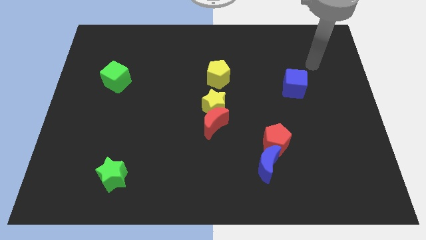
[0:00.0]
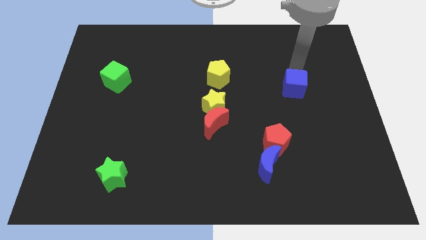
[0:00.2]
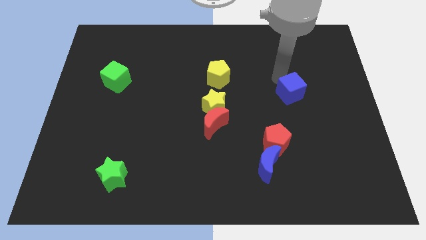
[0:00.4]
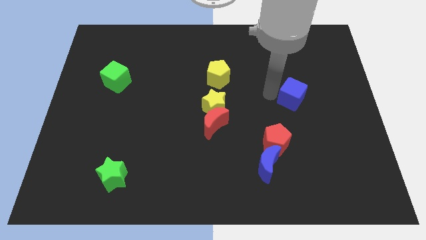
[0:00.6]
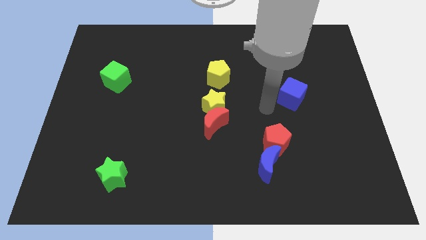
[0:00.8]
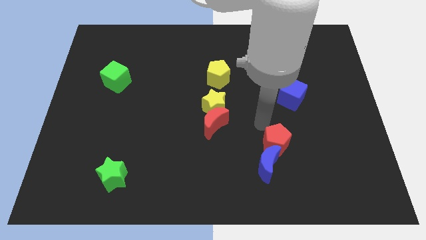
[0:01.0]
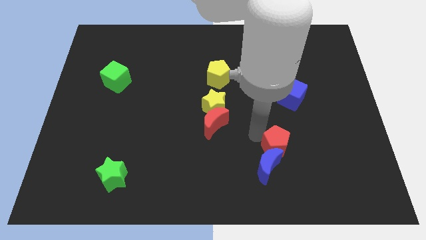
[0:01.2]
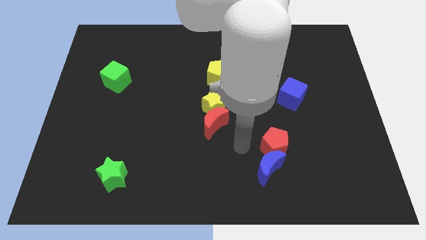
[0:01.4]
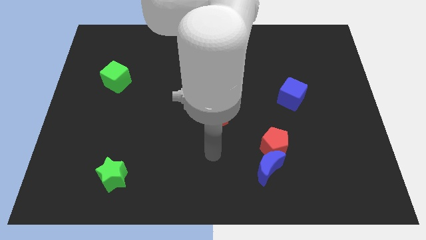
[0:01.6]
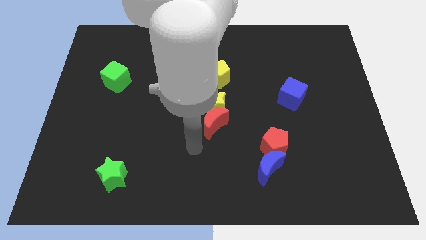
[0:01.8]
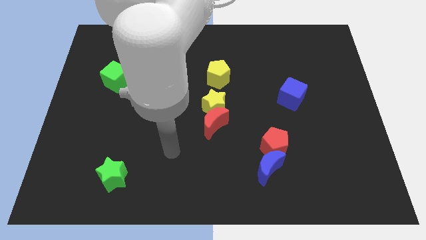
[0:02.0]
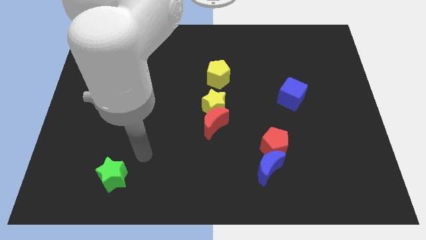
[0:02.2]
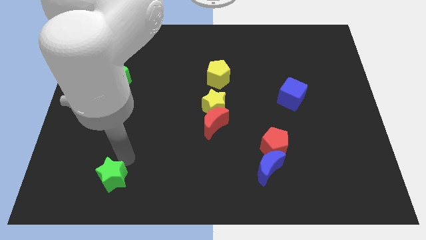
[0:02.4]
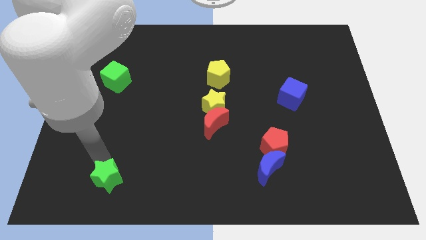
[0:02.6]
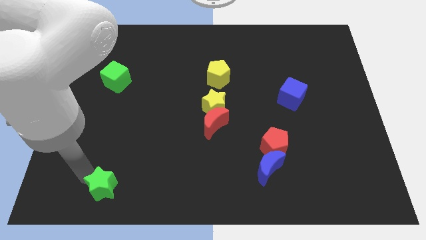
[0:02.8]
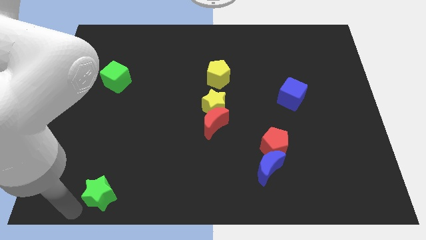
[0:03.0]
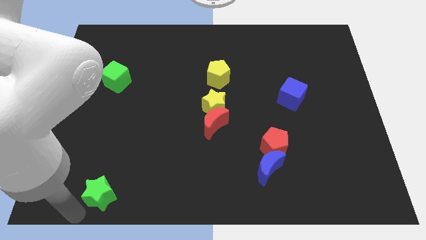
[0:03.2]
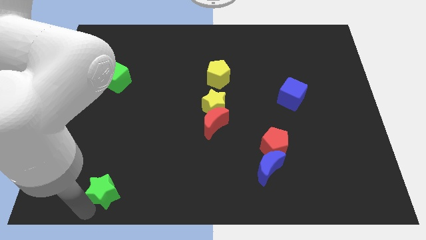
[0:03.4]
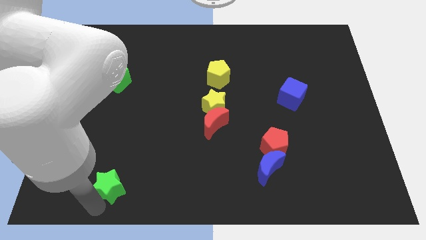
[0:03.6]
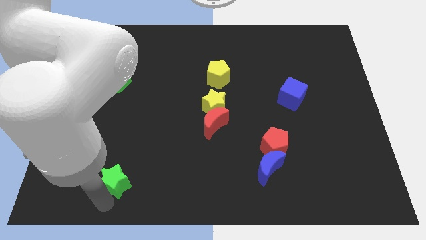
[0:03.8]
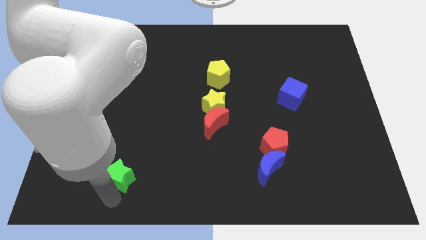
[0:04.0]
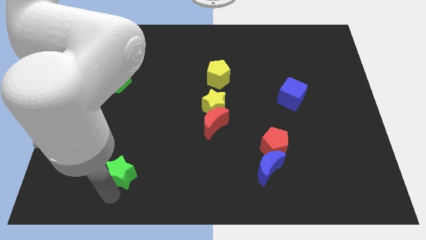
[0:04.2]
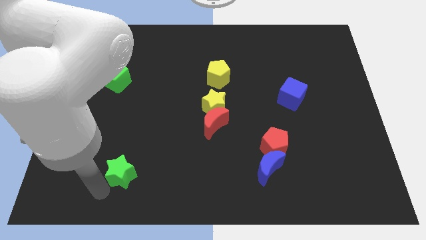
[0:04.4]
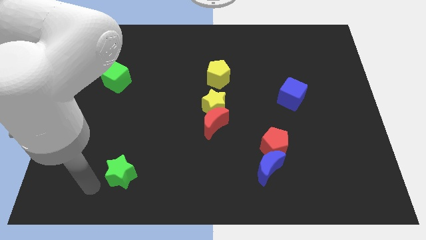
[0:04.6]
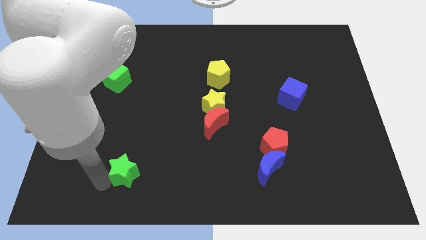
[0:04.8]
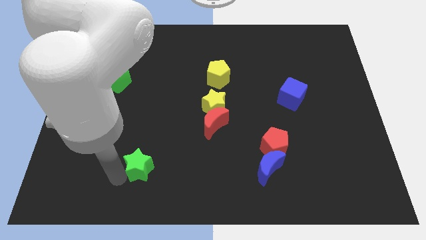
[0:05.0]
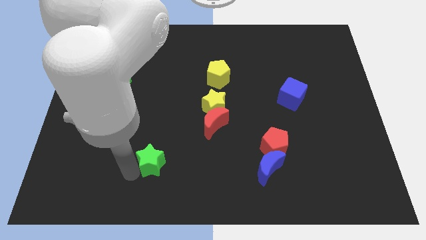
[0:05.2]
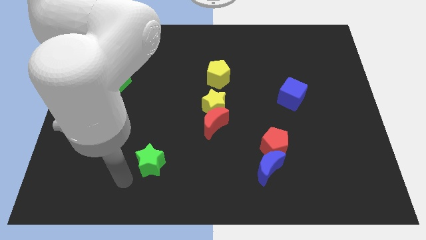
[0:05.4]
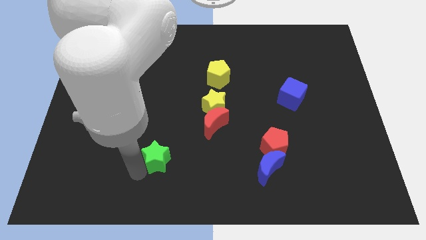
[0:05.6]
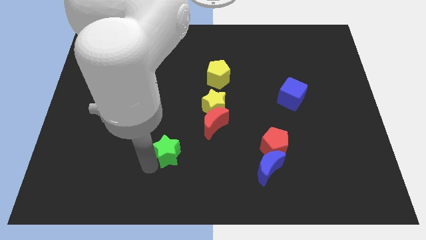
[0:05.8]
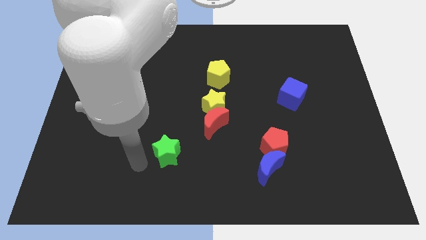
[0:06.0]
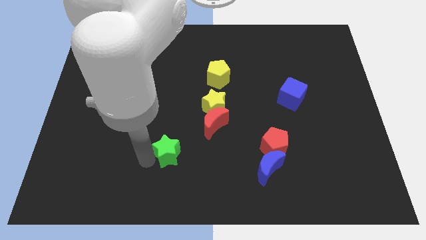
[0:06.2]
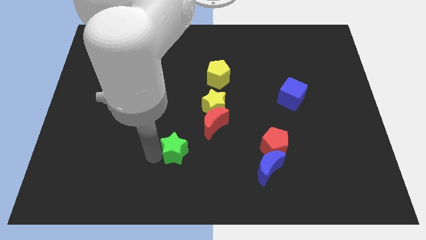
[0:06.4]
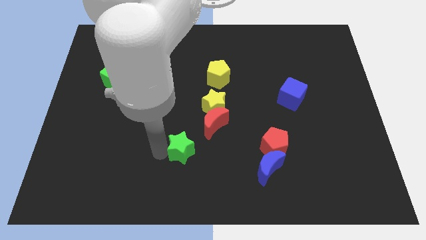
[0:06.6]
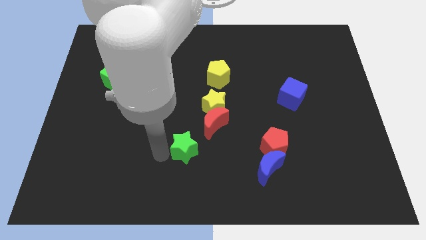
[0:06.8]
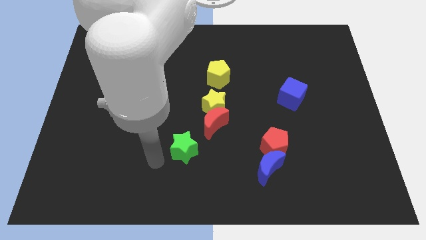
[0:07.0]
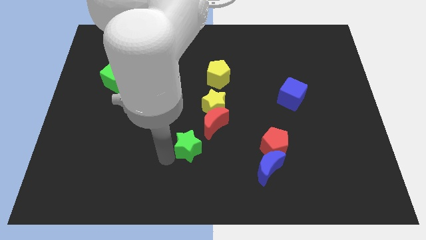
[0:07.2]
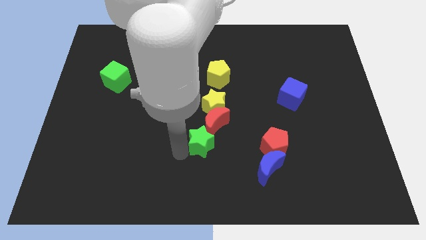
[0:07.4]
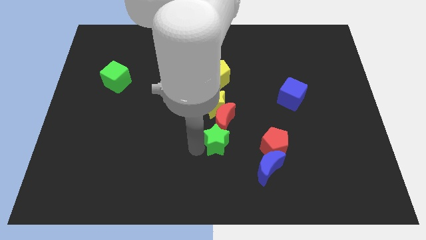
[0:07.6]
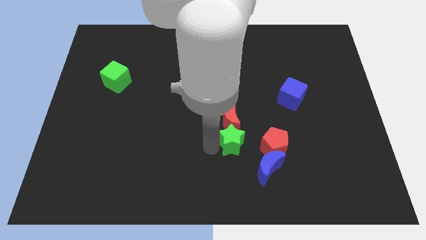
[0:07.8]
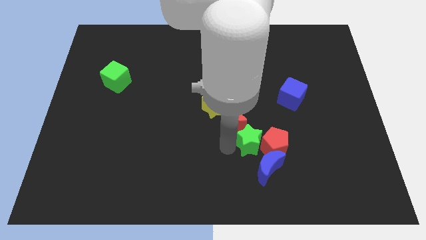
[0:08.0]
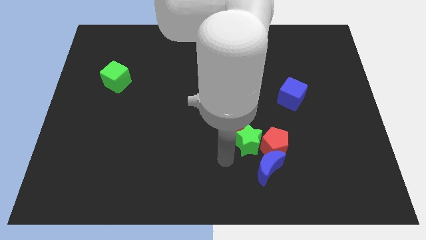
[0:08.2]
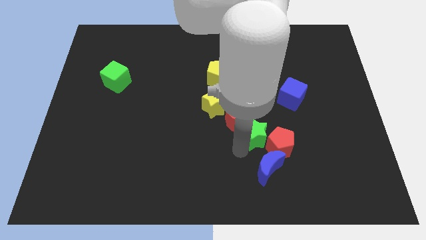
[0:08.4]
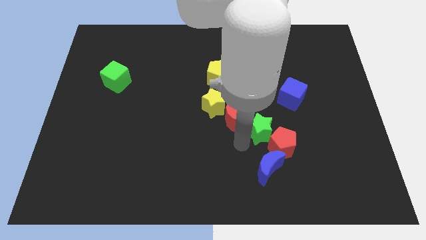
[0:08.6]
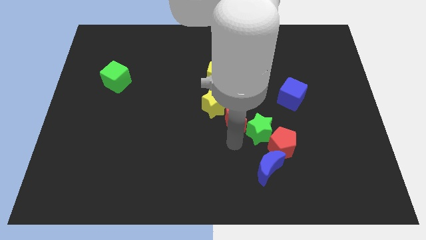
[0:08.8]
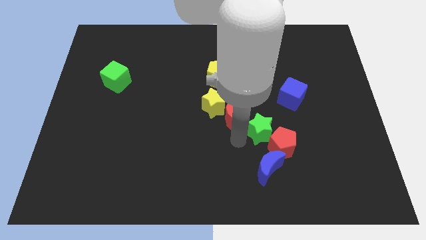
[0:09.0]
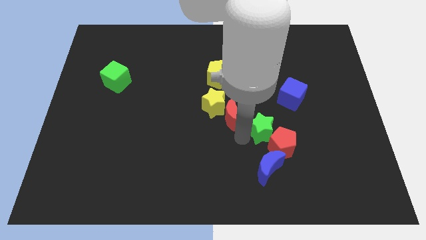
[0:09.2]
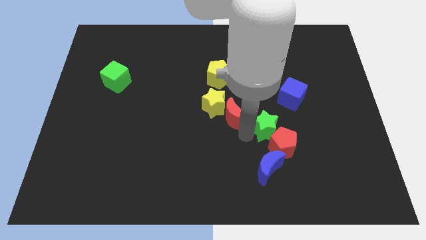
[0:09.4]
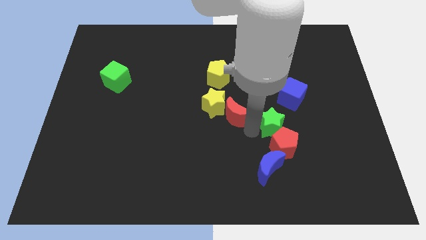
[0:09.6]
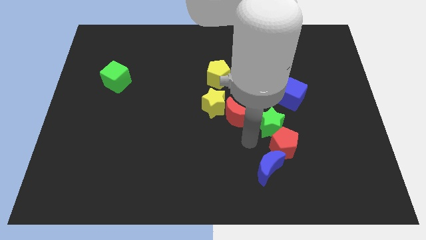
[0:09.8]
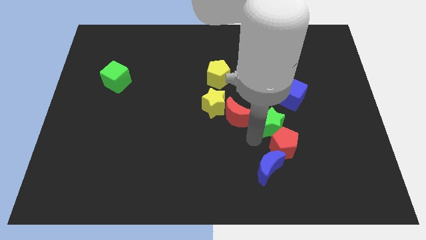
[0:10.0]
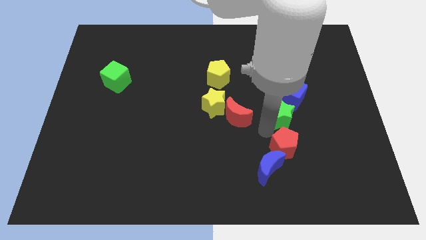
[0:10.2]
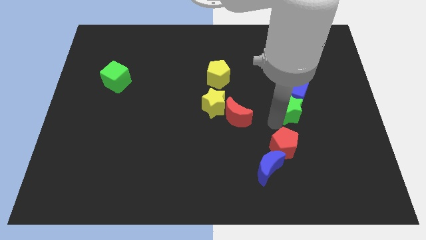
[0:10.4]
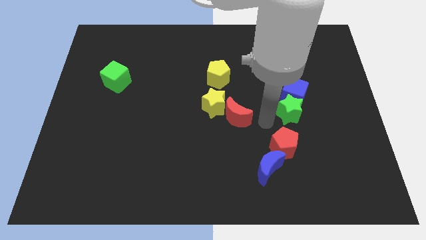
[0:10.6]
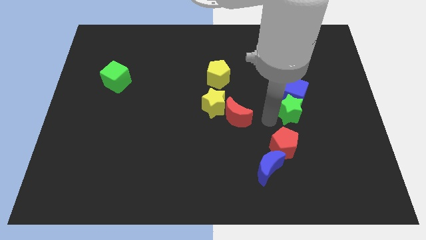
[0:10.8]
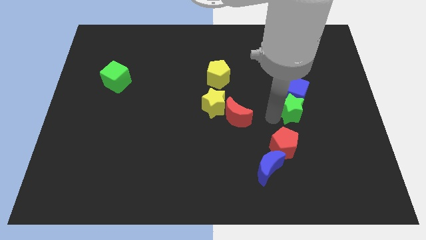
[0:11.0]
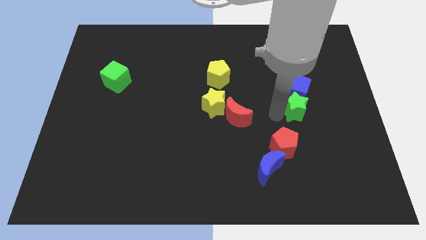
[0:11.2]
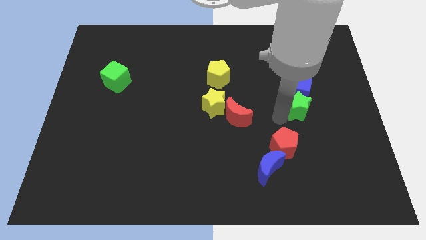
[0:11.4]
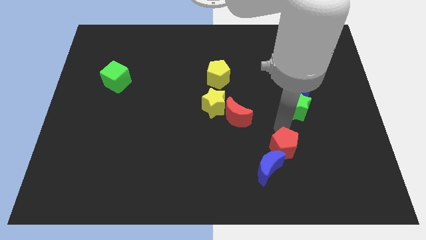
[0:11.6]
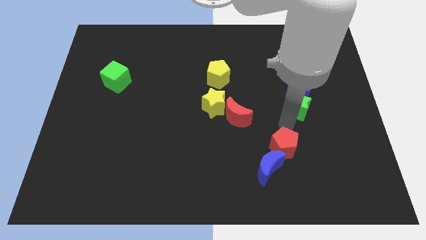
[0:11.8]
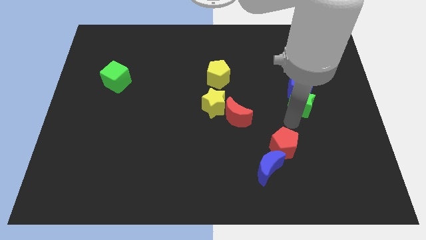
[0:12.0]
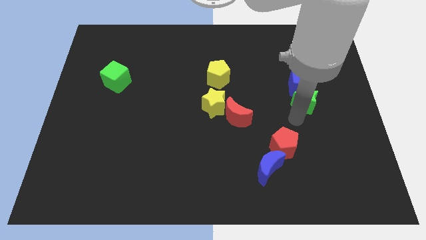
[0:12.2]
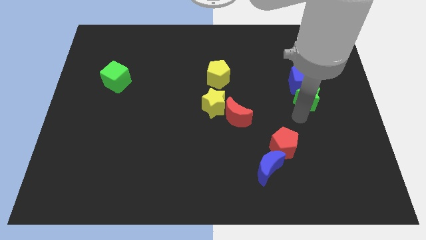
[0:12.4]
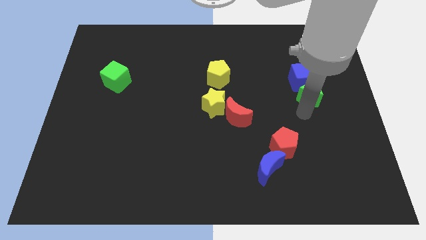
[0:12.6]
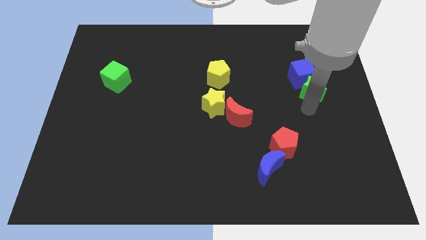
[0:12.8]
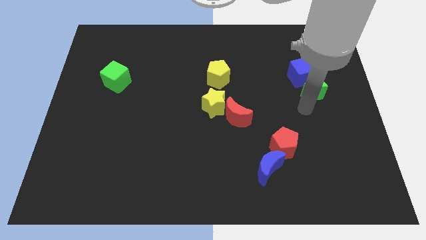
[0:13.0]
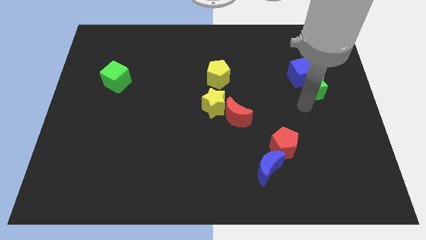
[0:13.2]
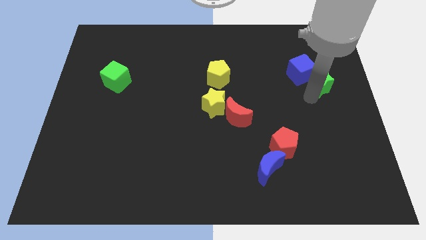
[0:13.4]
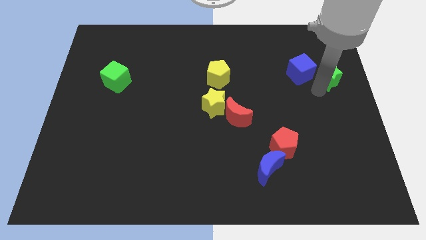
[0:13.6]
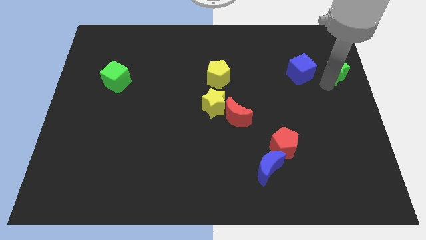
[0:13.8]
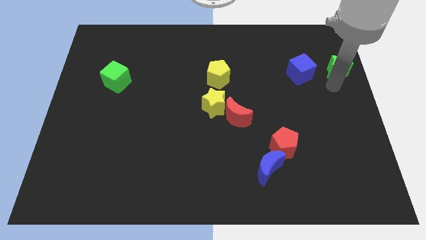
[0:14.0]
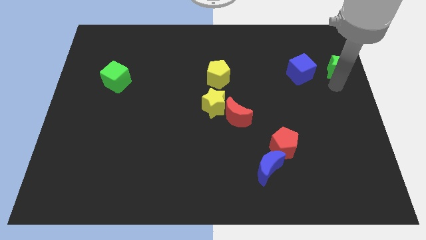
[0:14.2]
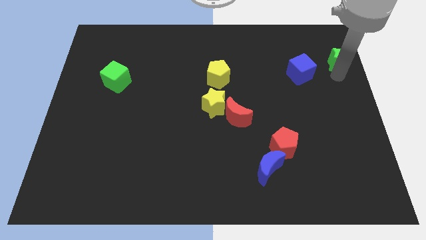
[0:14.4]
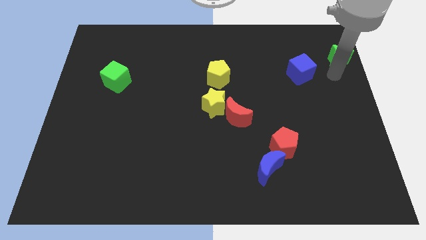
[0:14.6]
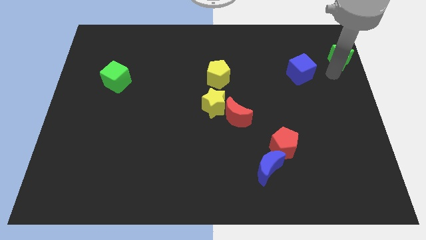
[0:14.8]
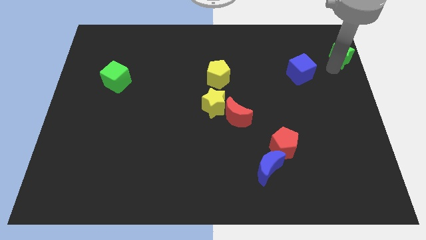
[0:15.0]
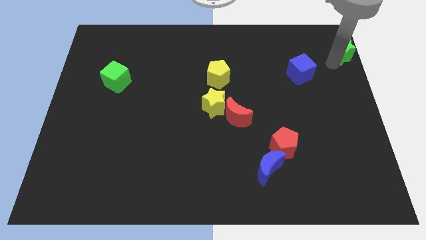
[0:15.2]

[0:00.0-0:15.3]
move the green star to the top right
